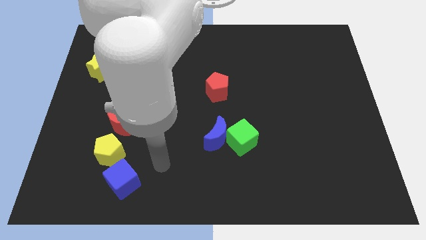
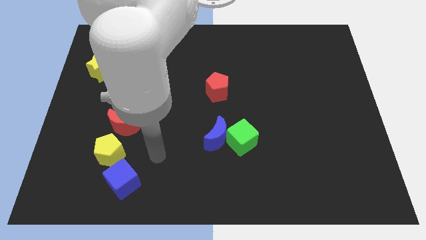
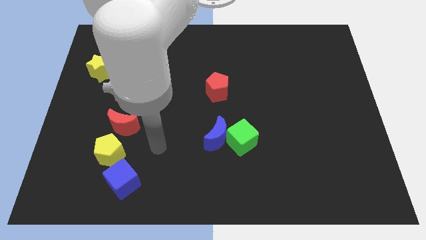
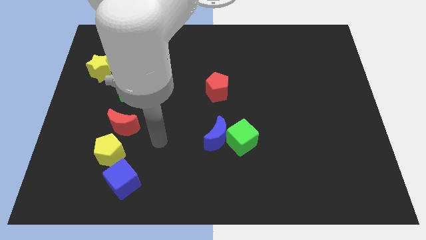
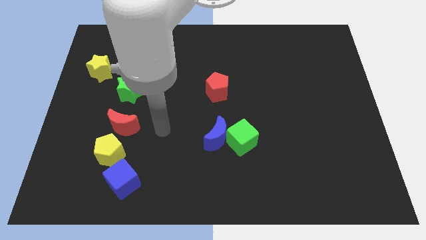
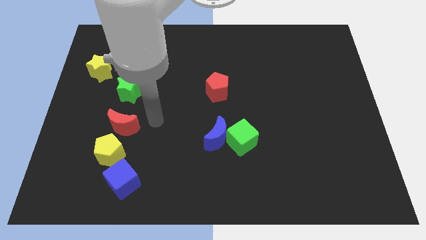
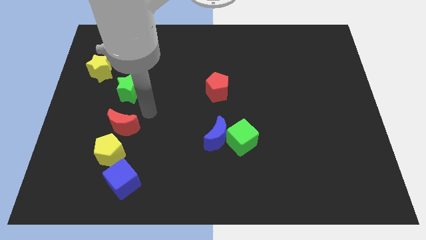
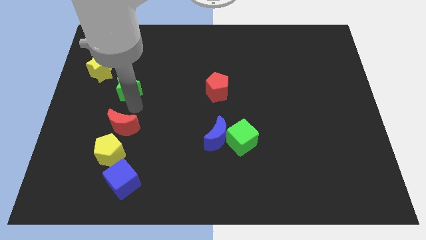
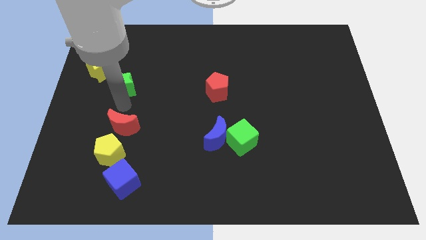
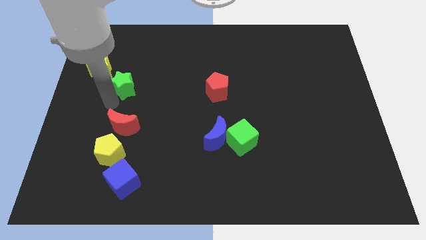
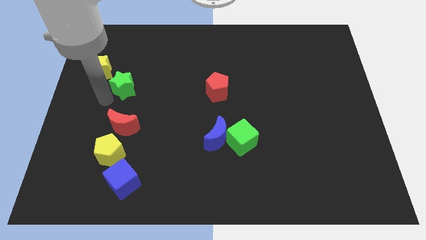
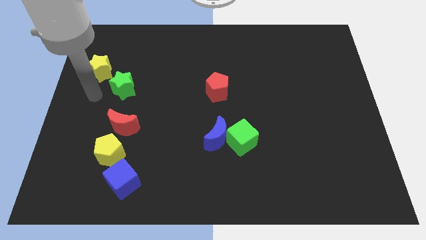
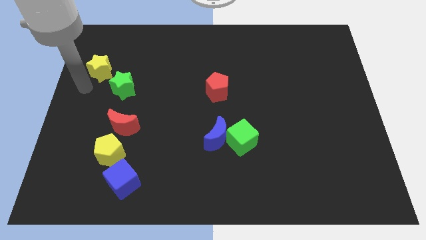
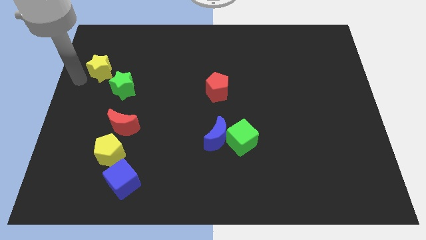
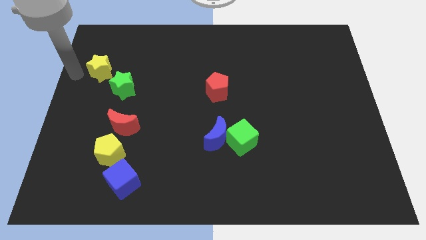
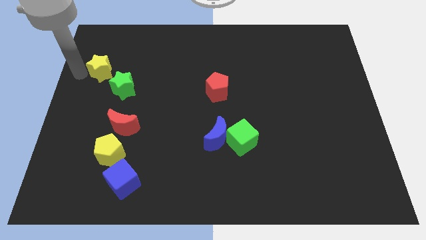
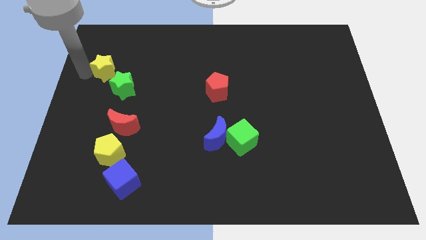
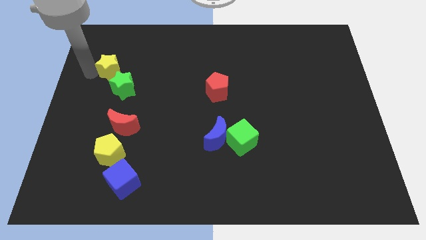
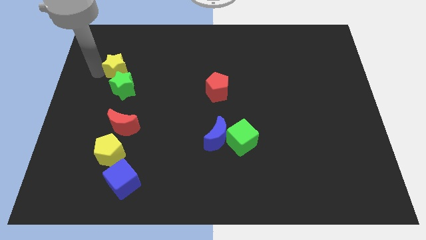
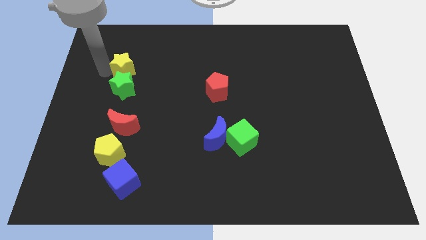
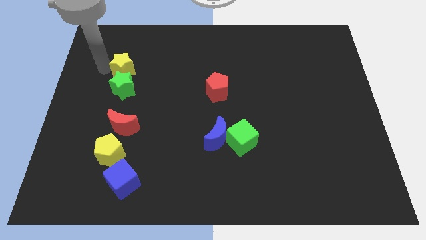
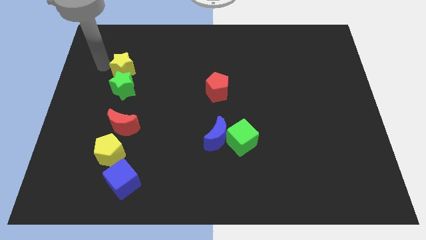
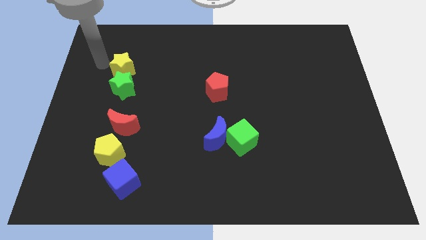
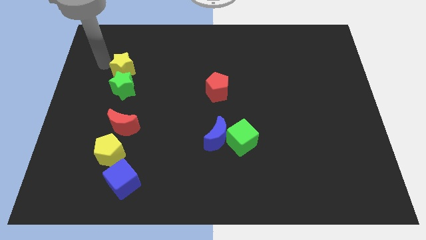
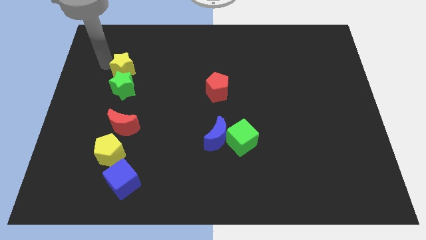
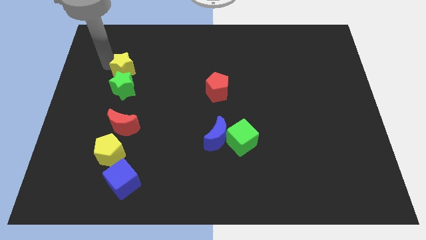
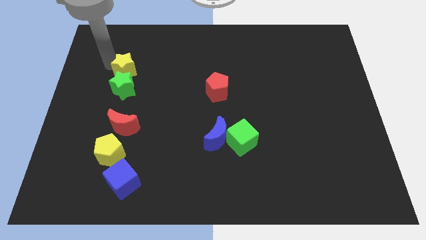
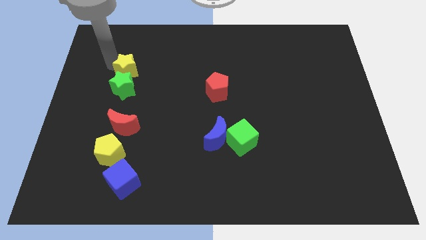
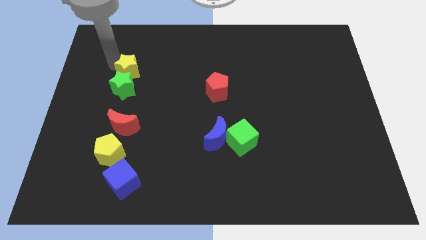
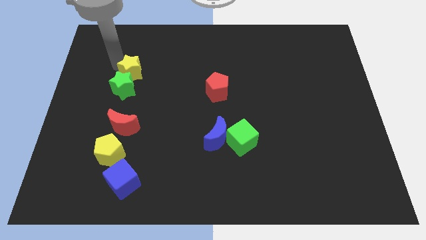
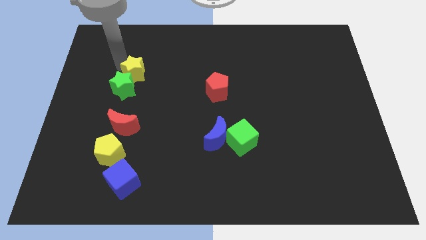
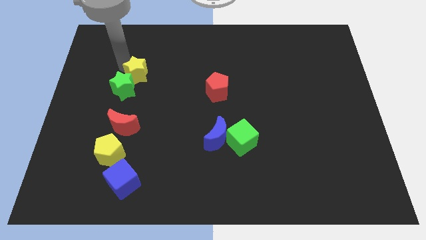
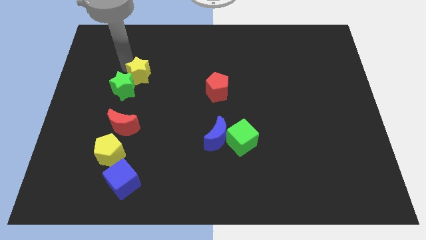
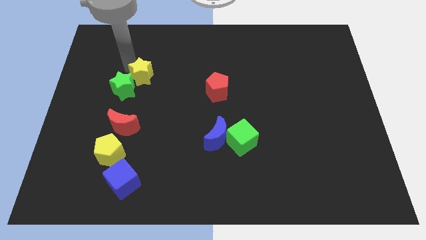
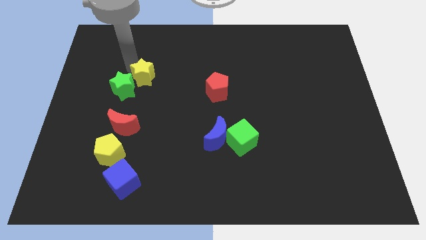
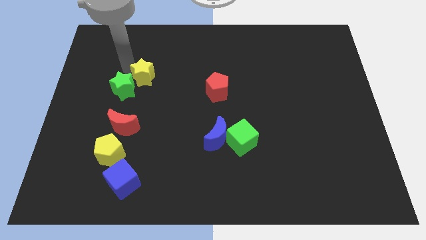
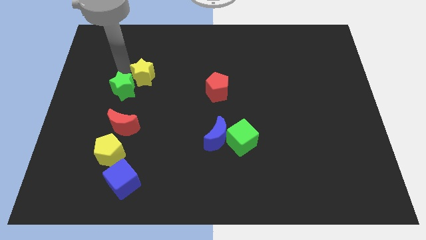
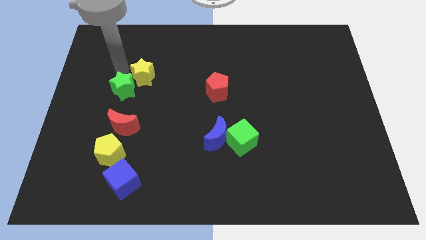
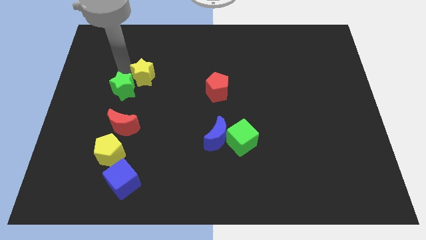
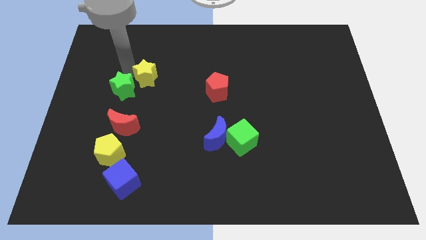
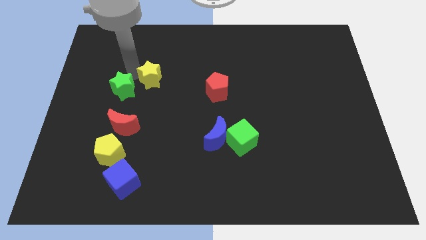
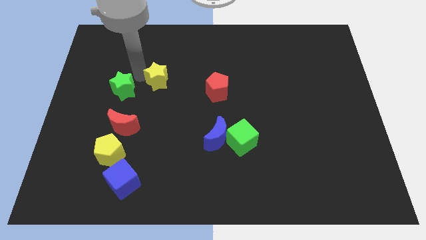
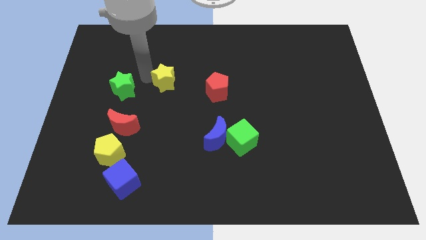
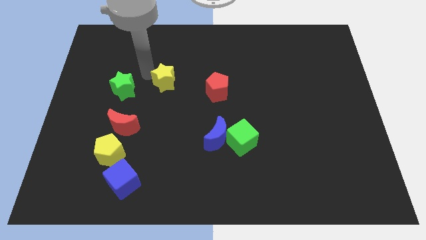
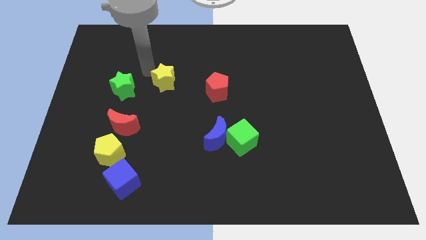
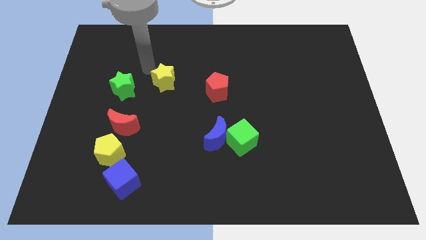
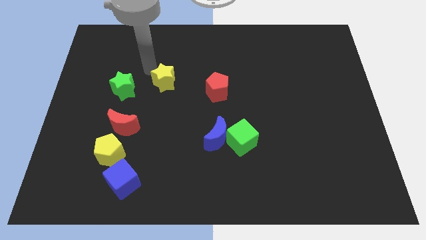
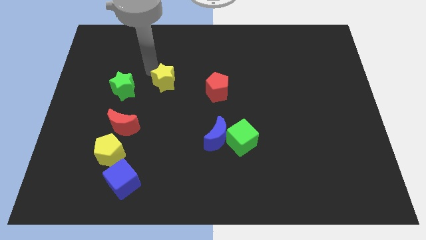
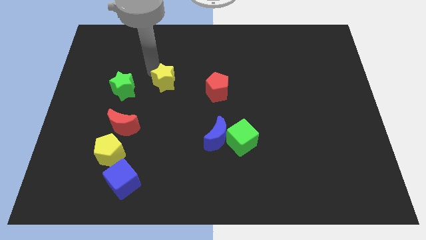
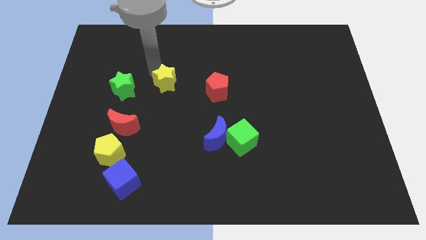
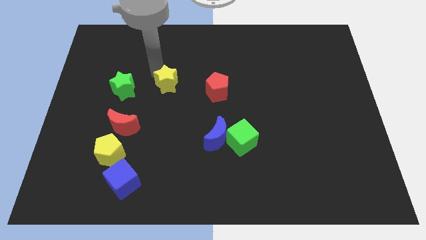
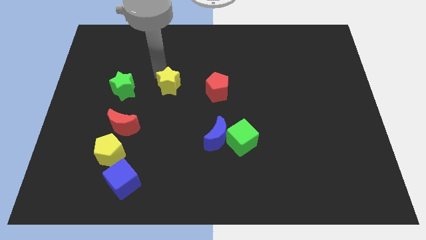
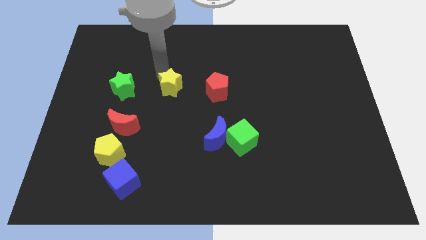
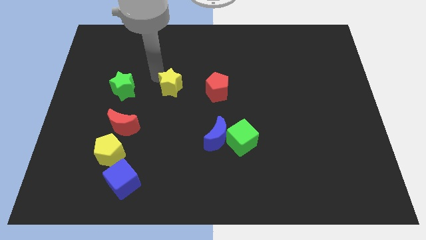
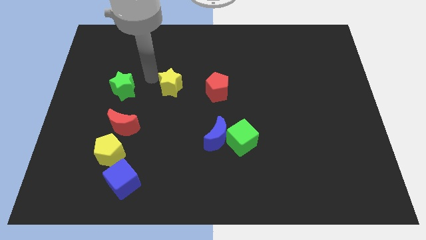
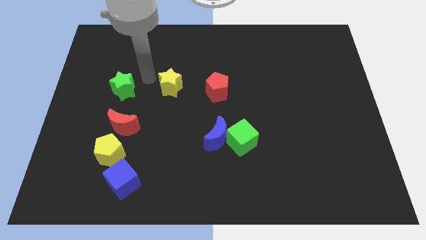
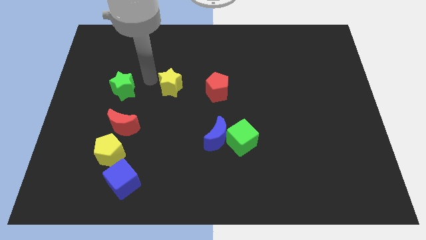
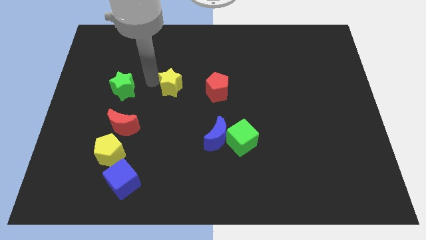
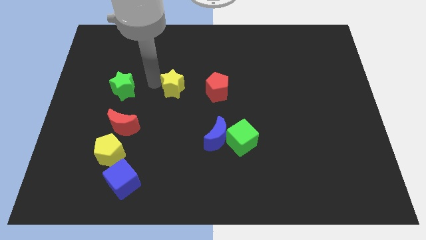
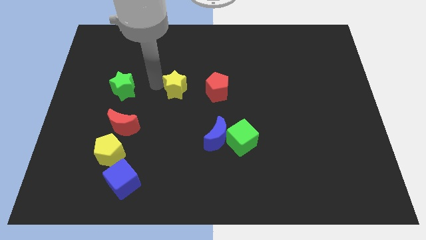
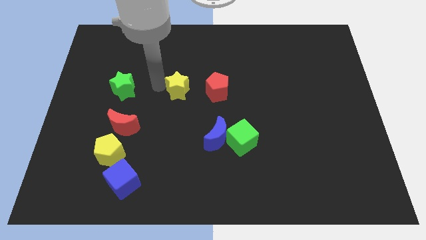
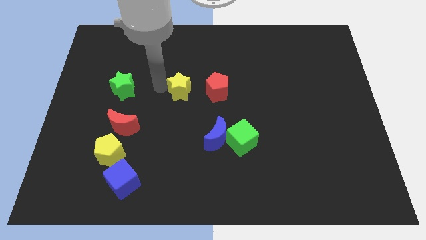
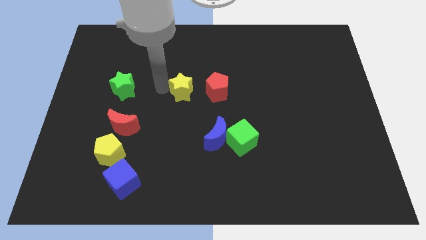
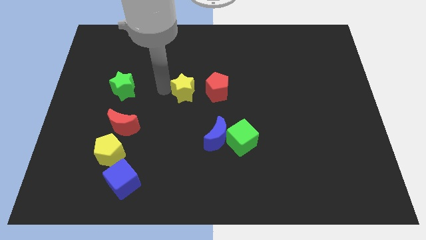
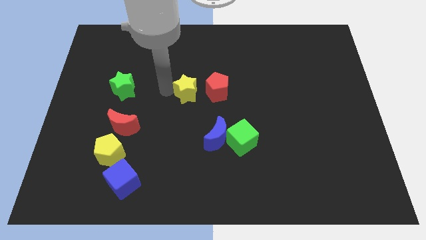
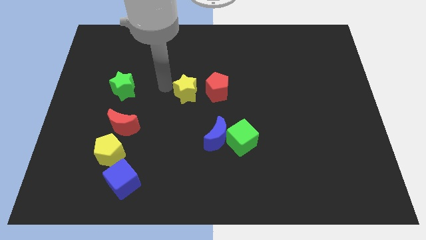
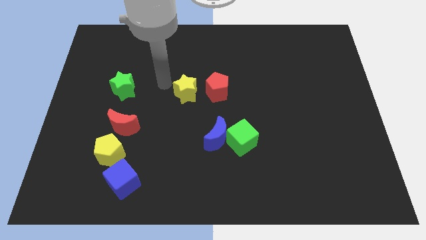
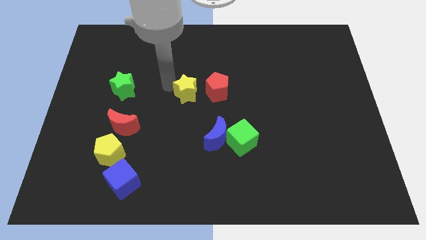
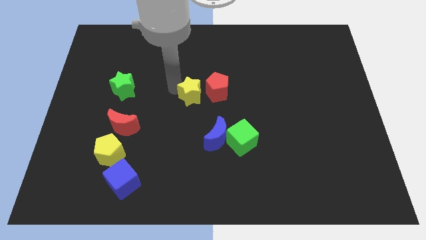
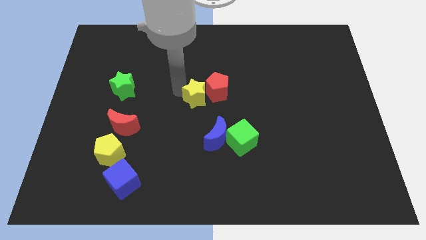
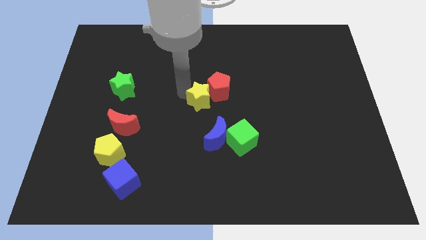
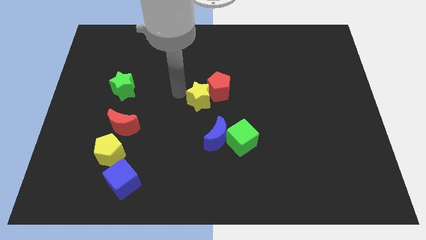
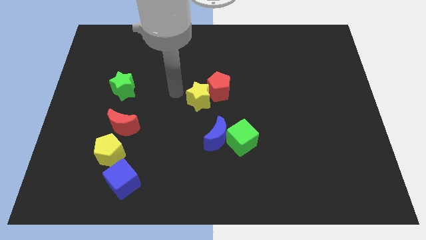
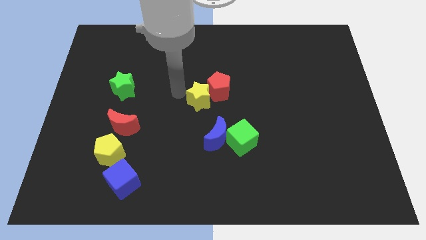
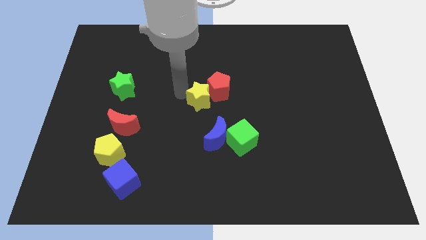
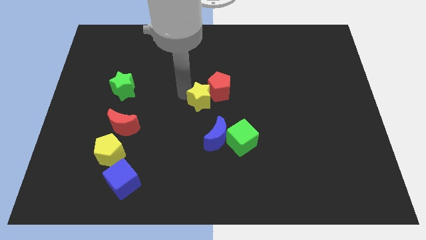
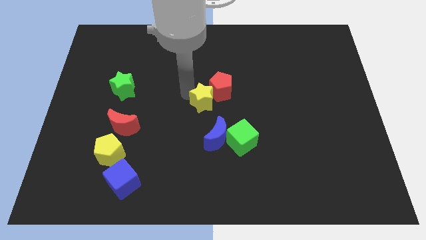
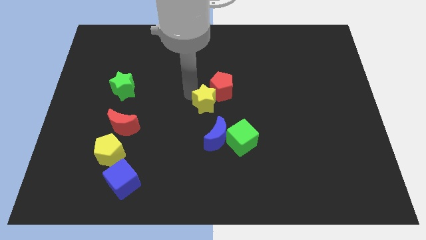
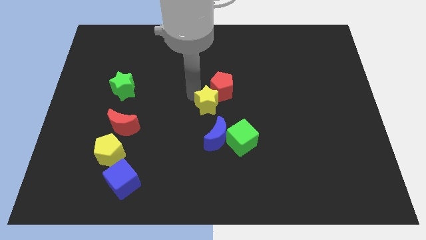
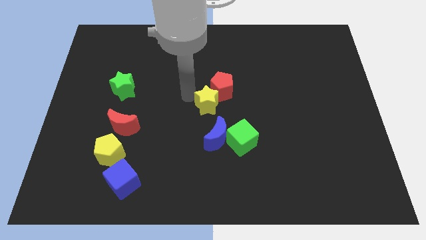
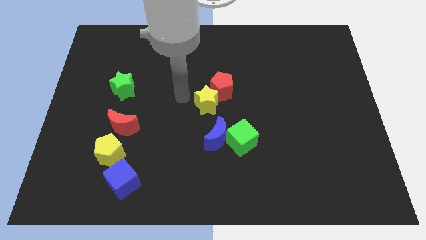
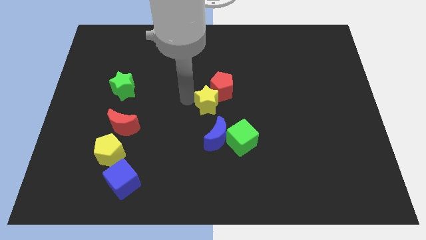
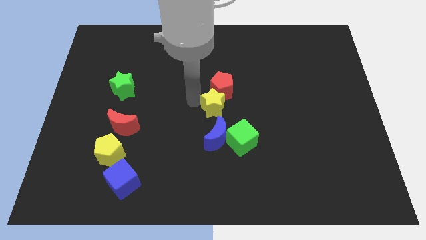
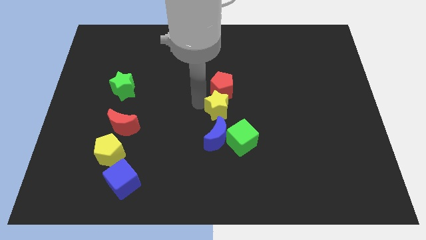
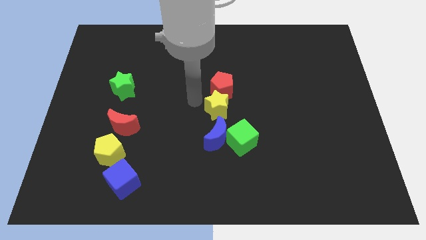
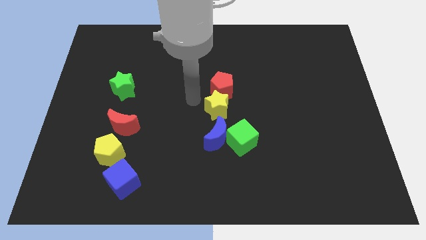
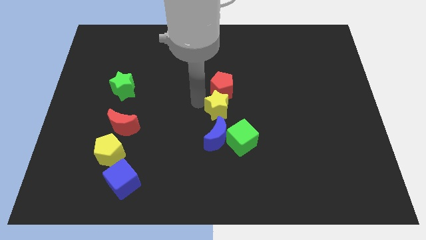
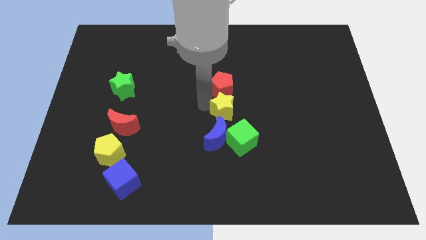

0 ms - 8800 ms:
move the yellow star to the top right side of the blue moon
